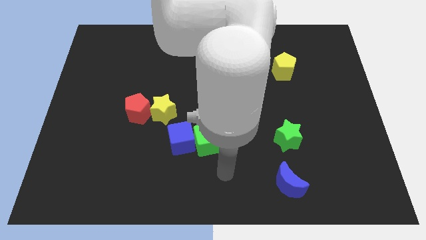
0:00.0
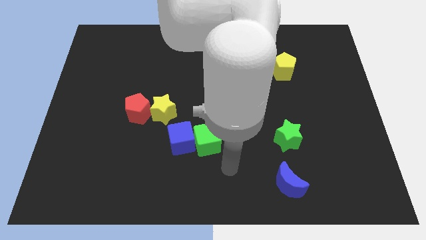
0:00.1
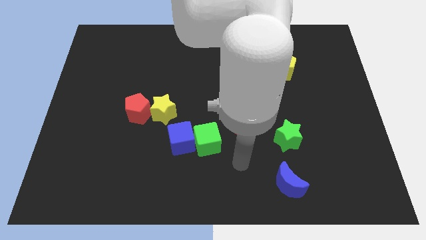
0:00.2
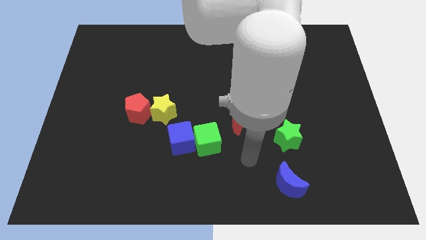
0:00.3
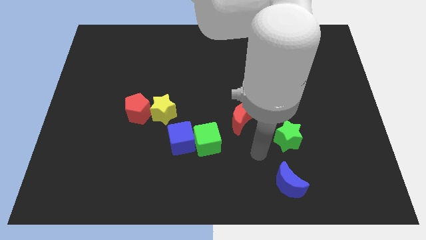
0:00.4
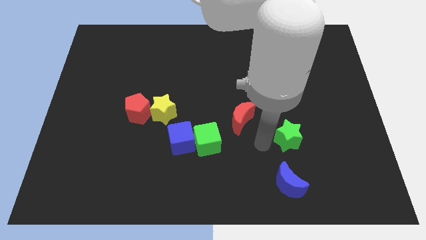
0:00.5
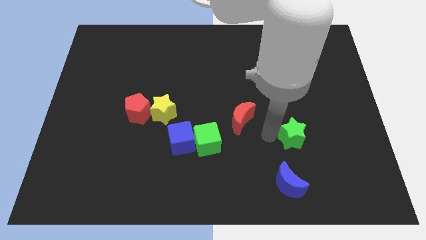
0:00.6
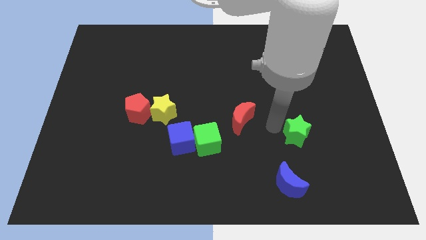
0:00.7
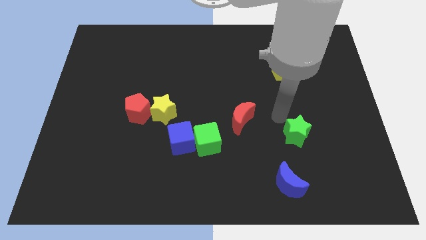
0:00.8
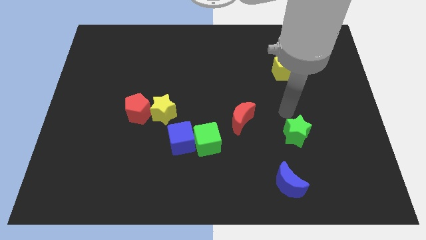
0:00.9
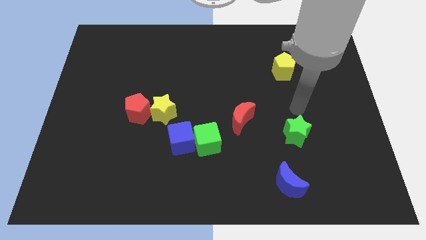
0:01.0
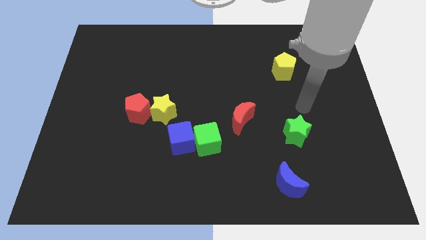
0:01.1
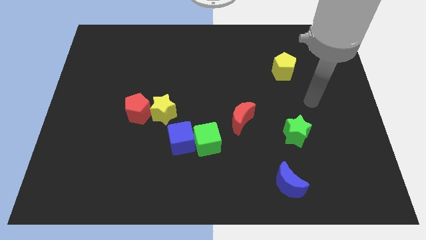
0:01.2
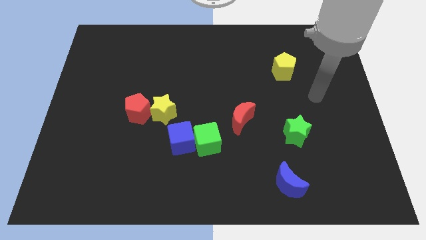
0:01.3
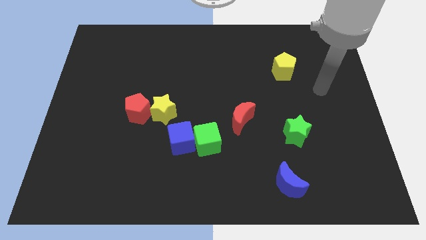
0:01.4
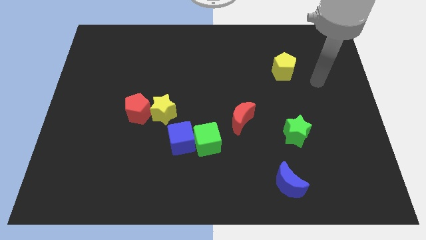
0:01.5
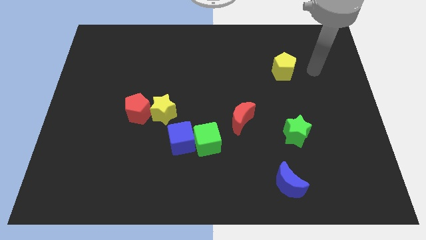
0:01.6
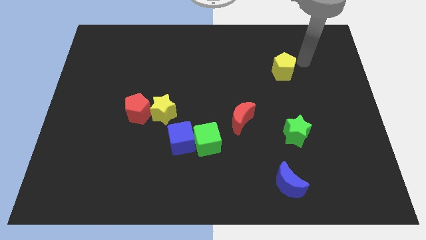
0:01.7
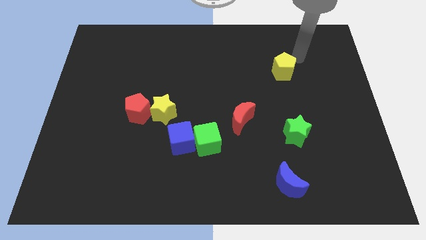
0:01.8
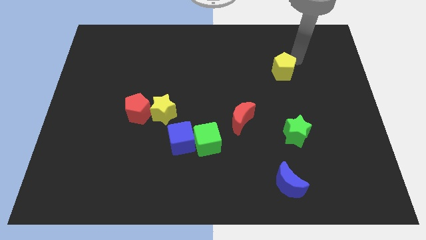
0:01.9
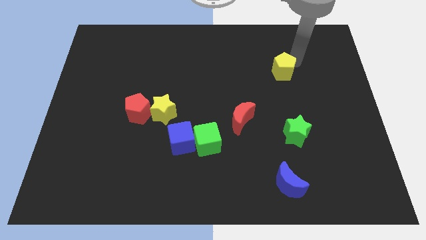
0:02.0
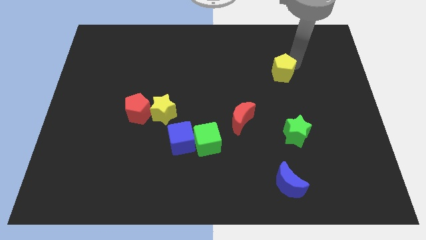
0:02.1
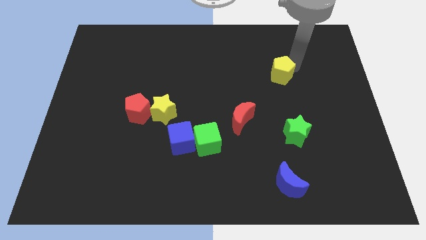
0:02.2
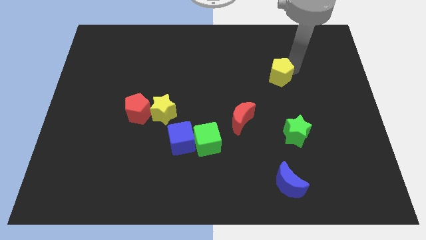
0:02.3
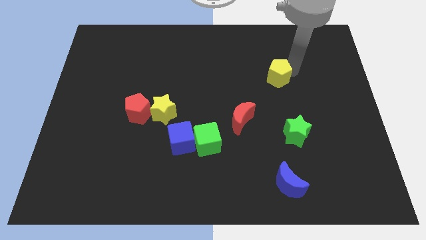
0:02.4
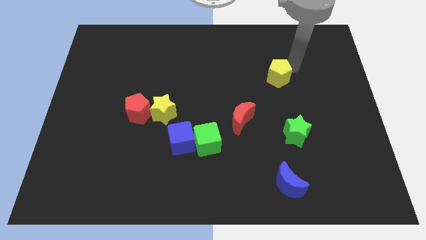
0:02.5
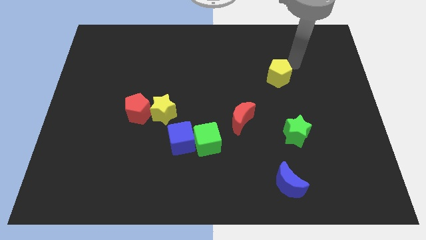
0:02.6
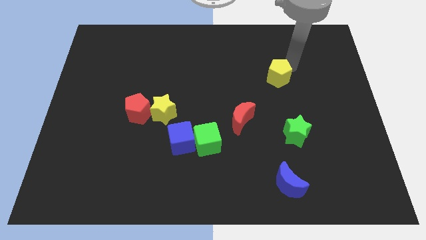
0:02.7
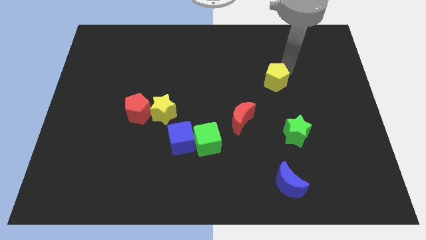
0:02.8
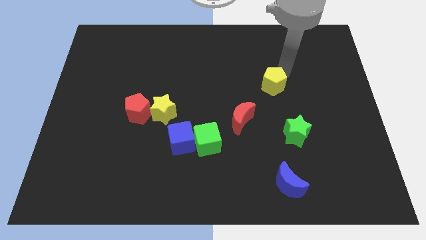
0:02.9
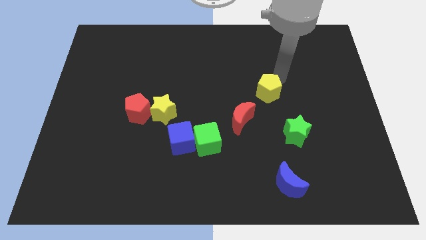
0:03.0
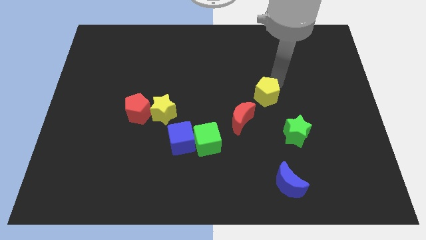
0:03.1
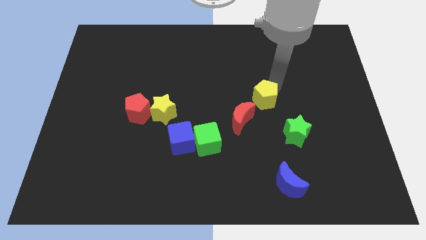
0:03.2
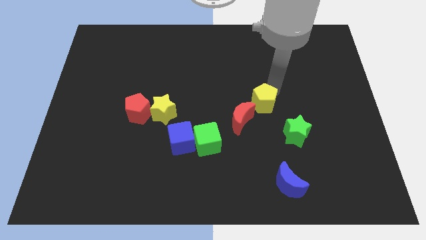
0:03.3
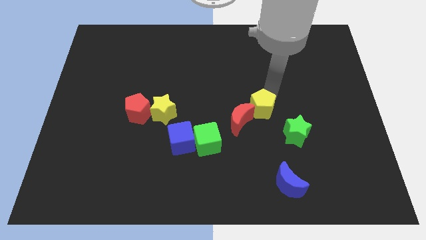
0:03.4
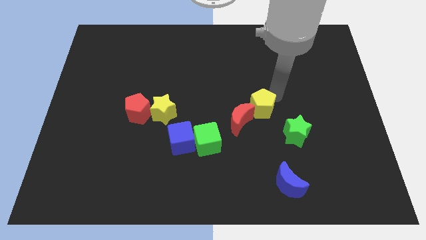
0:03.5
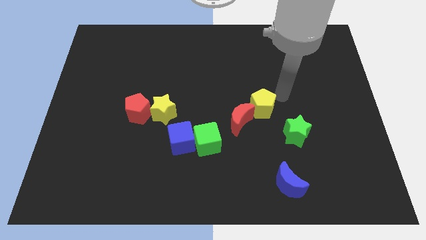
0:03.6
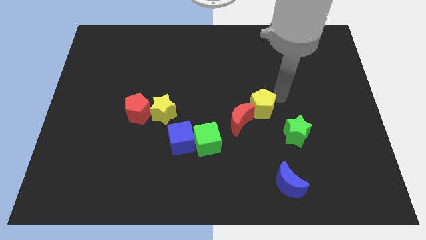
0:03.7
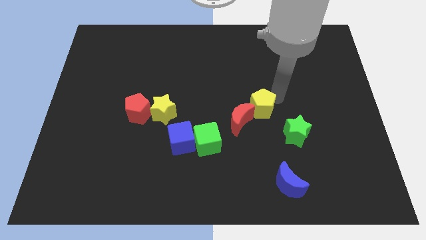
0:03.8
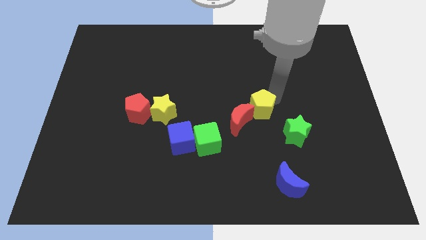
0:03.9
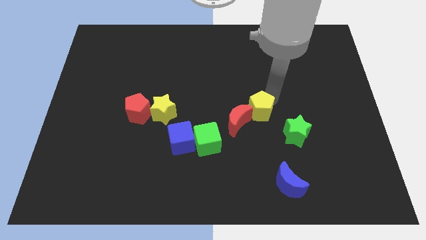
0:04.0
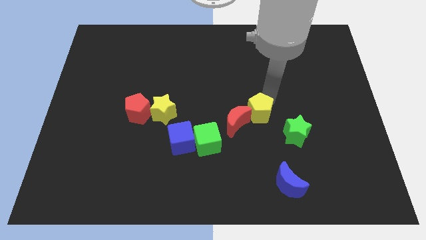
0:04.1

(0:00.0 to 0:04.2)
slide the yellow pentagon towards the red moon

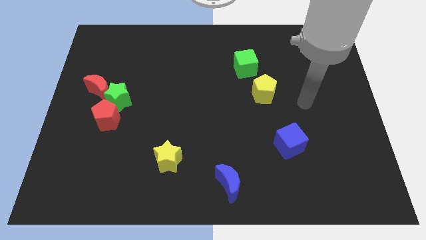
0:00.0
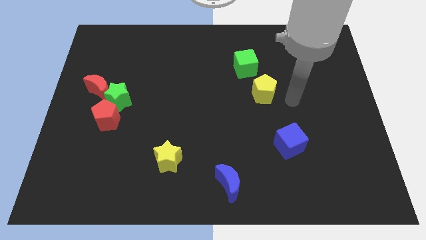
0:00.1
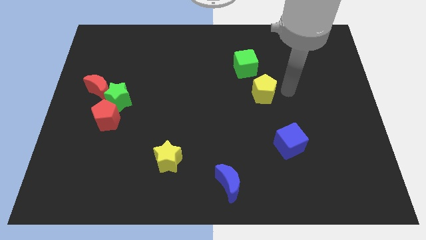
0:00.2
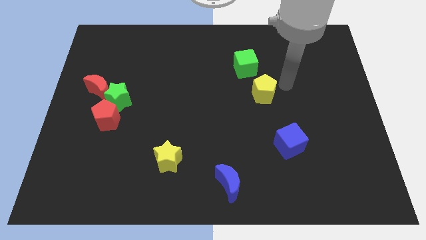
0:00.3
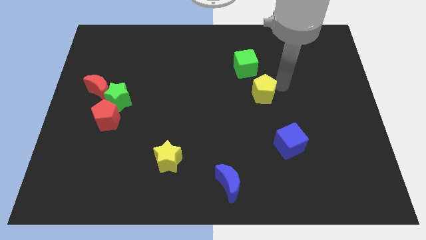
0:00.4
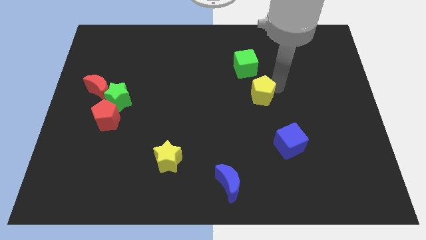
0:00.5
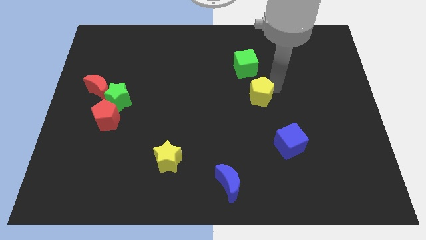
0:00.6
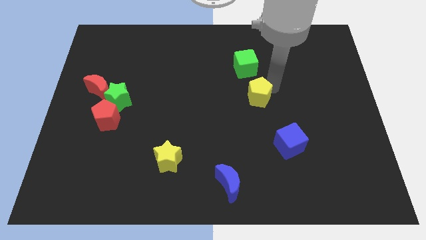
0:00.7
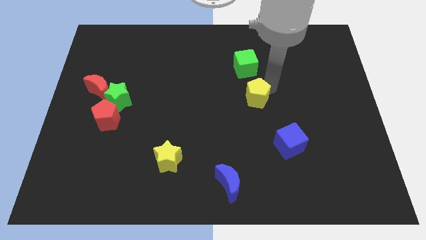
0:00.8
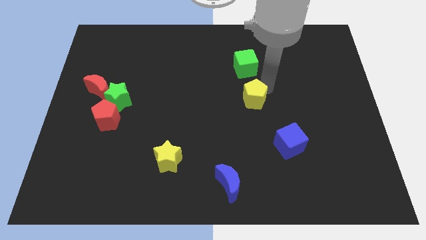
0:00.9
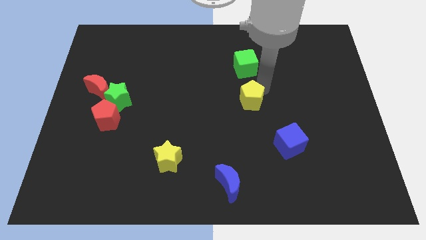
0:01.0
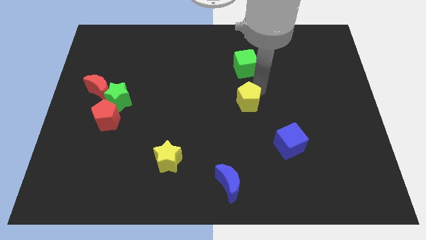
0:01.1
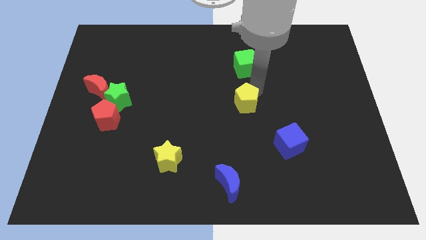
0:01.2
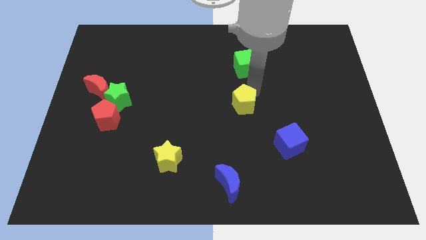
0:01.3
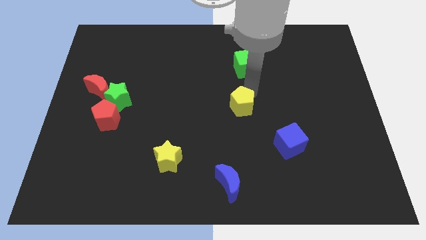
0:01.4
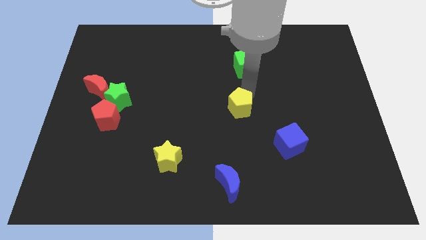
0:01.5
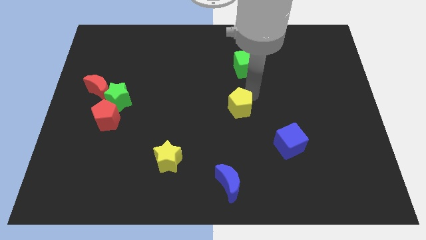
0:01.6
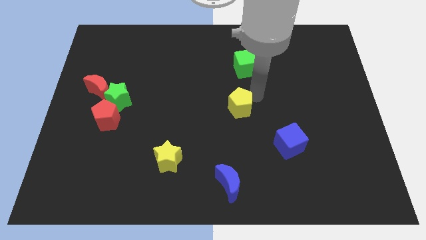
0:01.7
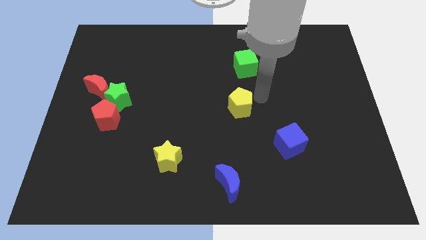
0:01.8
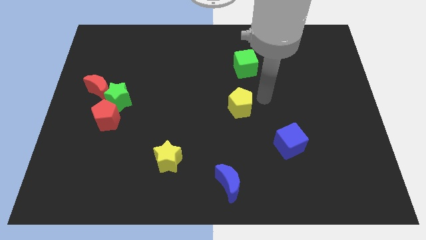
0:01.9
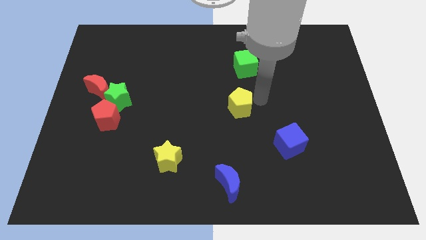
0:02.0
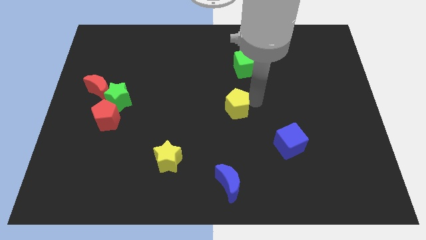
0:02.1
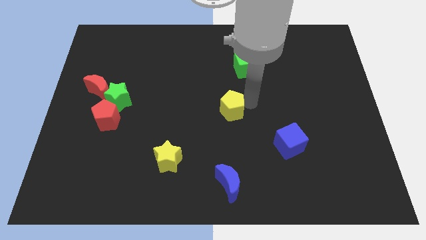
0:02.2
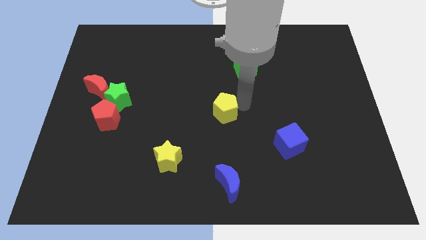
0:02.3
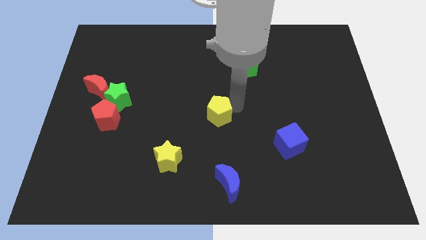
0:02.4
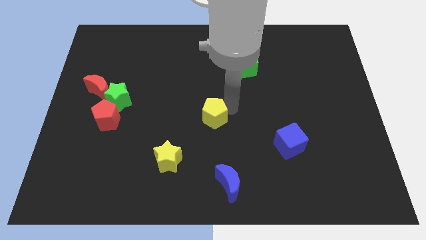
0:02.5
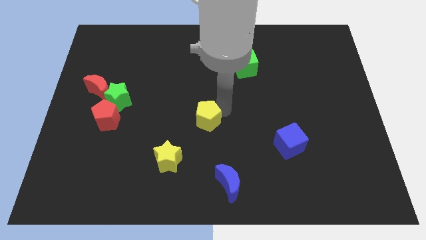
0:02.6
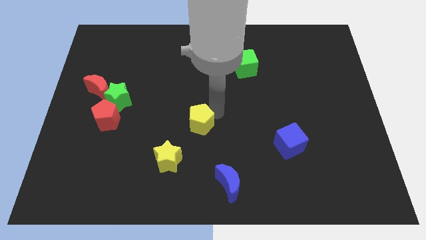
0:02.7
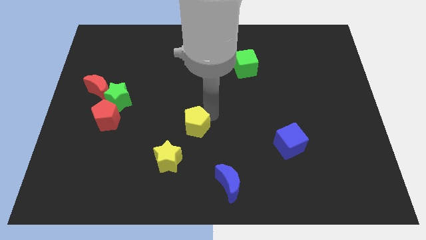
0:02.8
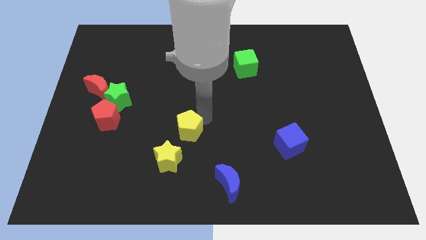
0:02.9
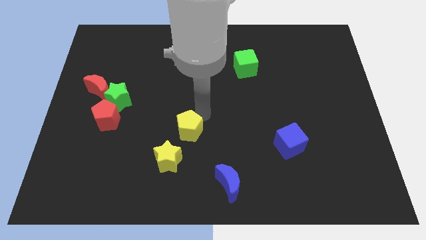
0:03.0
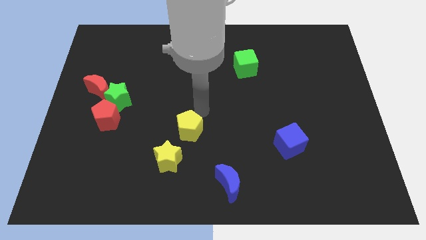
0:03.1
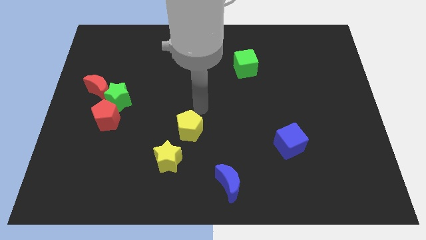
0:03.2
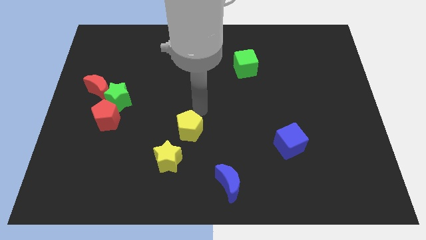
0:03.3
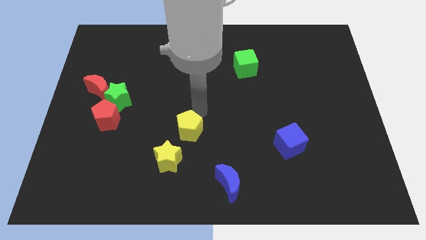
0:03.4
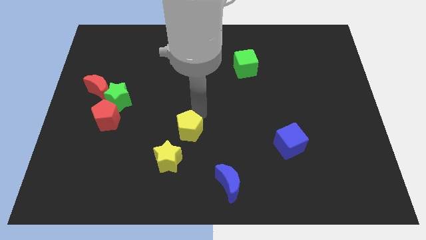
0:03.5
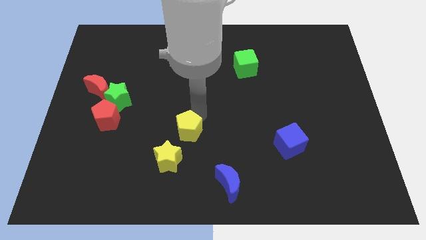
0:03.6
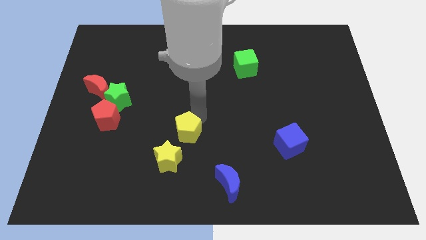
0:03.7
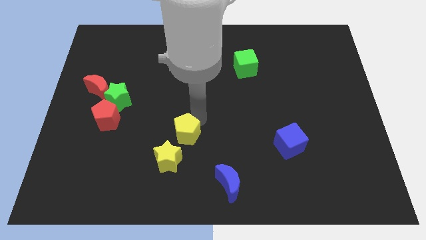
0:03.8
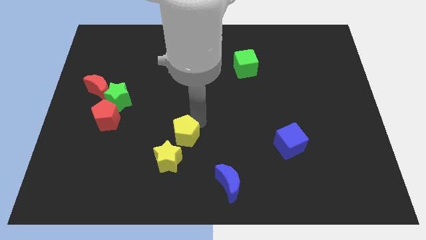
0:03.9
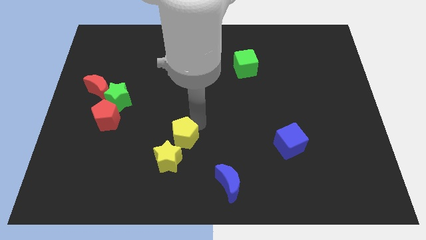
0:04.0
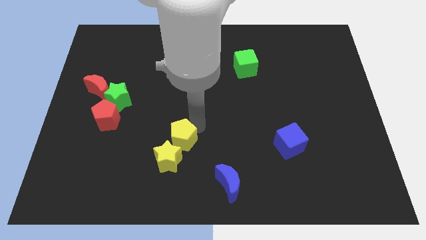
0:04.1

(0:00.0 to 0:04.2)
push the yellow pentagon next to the yellow star
